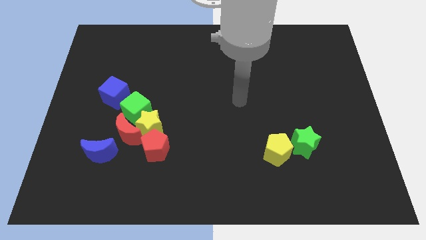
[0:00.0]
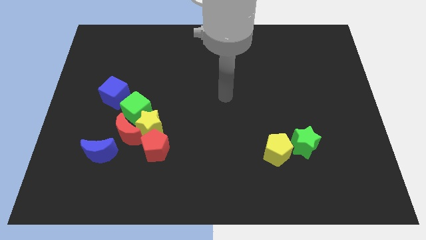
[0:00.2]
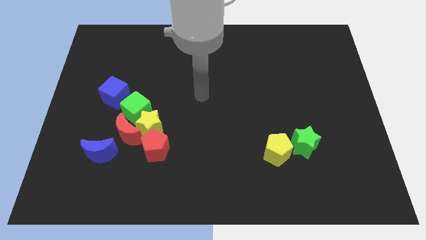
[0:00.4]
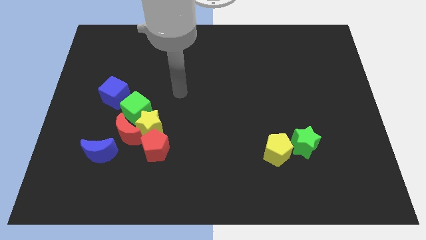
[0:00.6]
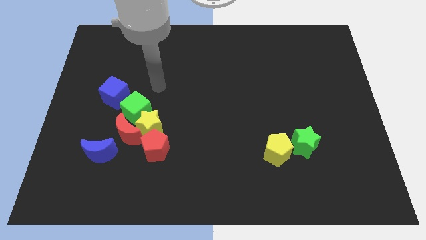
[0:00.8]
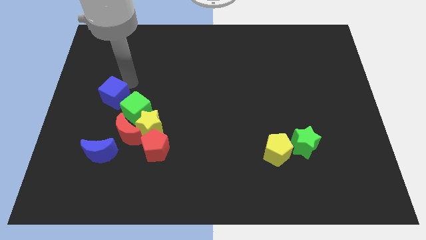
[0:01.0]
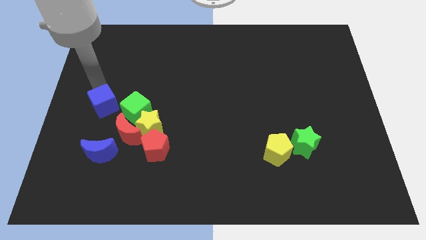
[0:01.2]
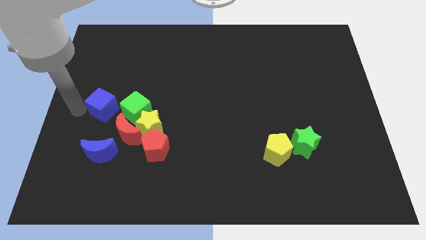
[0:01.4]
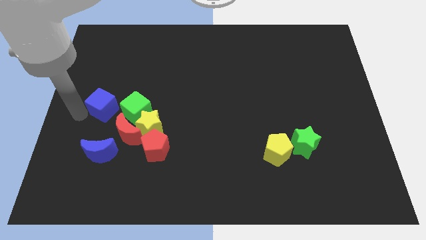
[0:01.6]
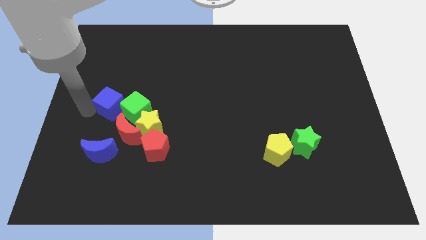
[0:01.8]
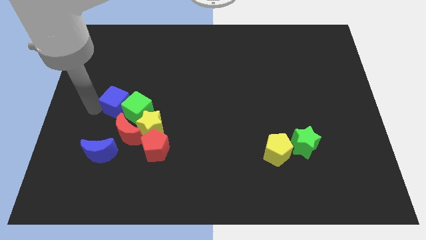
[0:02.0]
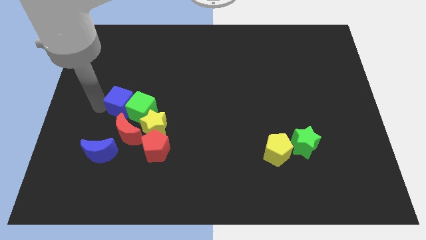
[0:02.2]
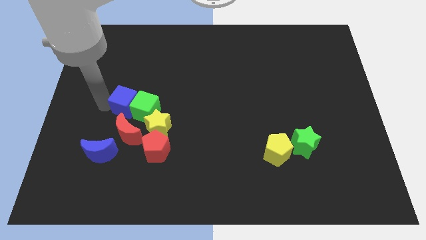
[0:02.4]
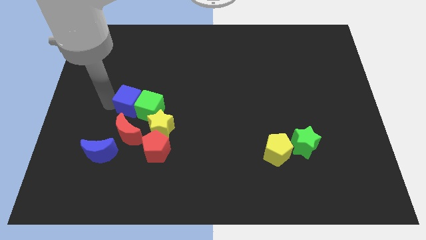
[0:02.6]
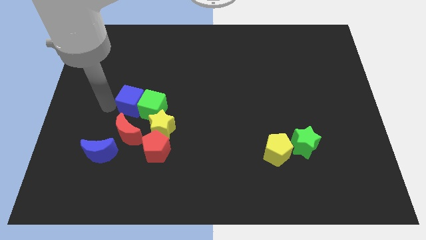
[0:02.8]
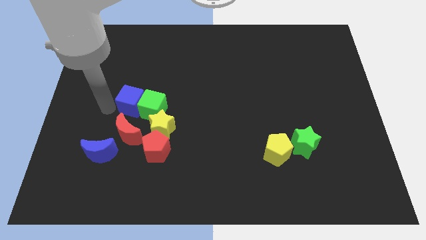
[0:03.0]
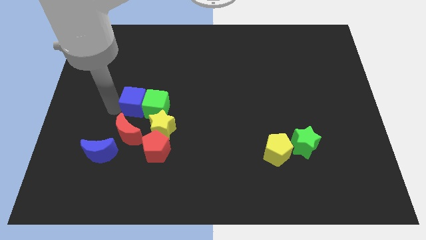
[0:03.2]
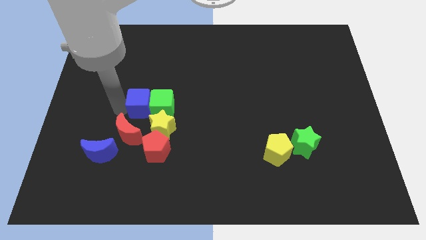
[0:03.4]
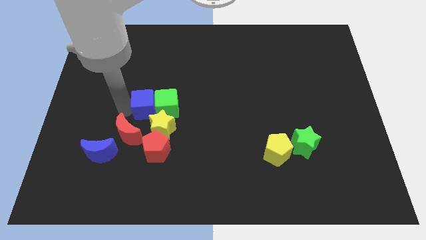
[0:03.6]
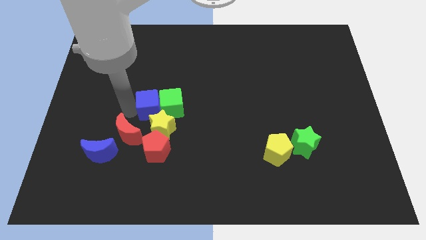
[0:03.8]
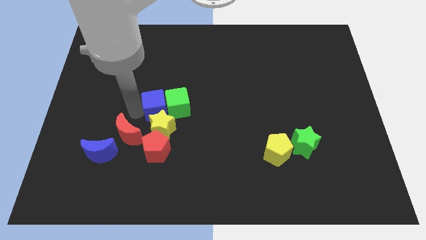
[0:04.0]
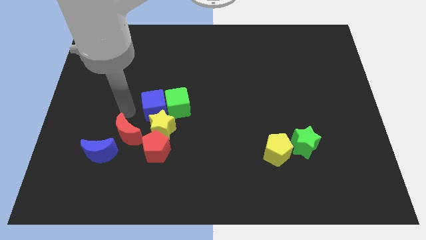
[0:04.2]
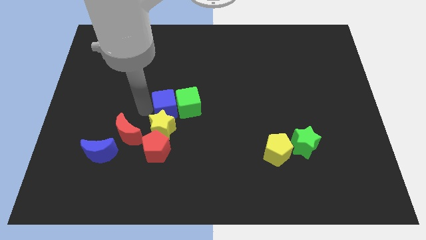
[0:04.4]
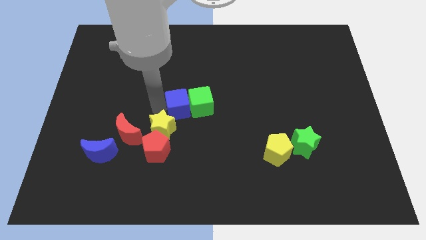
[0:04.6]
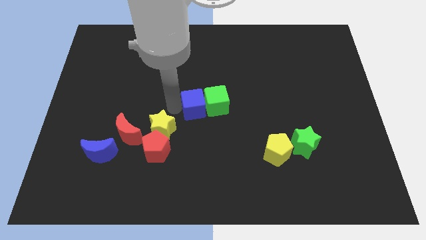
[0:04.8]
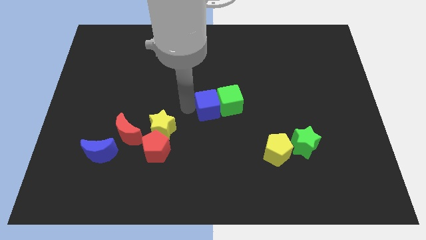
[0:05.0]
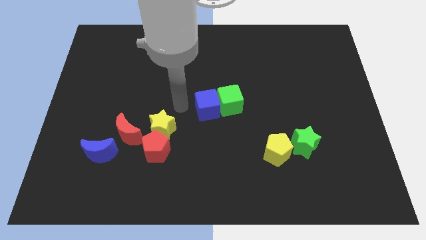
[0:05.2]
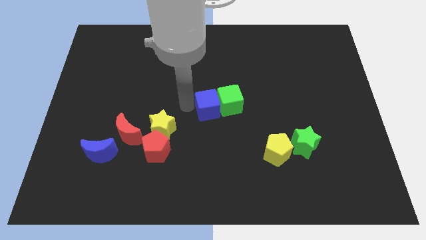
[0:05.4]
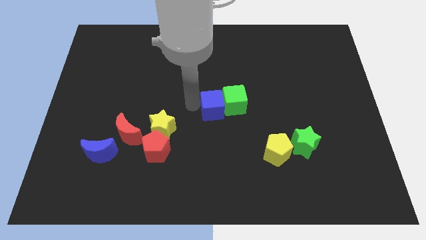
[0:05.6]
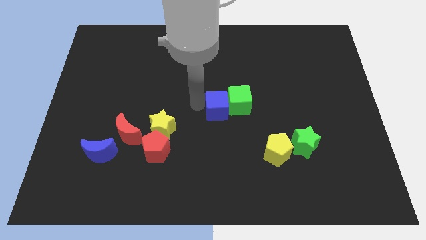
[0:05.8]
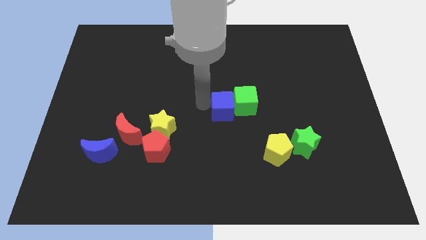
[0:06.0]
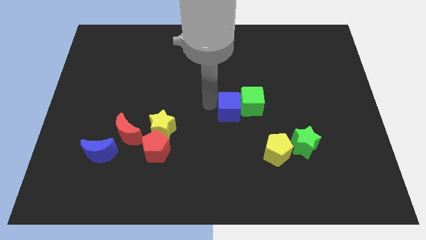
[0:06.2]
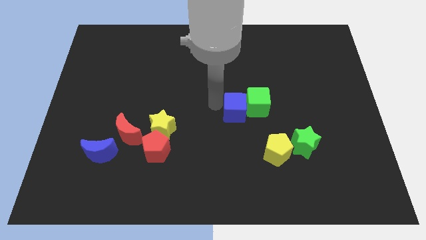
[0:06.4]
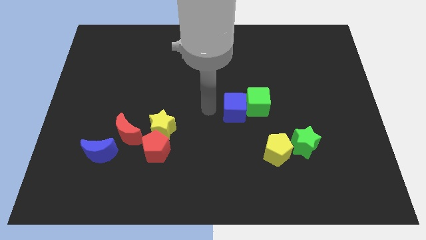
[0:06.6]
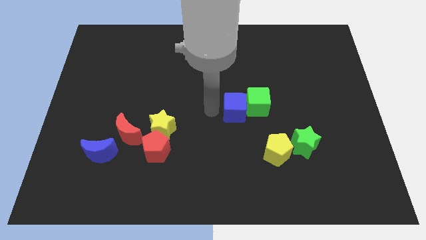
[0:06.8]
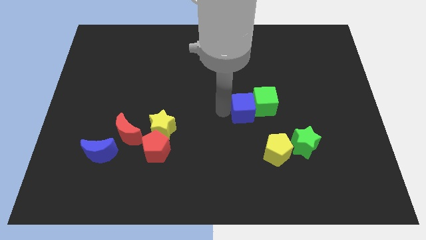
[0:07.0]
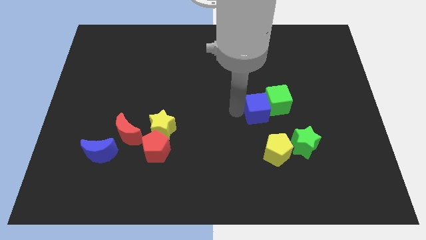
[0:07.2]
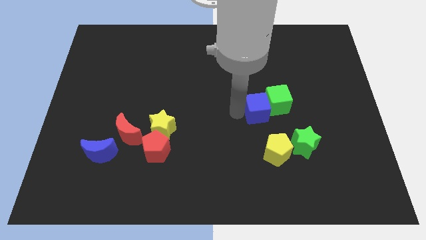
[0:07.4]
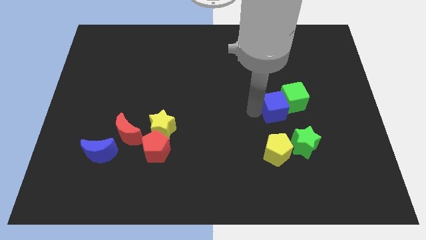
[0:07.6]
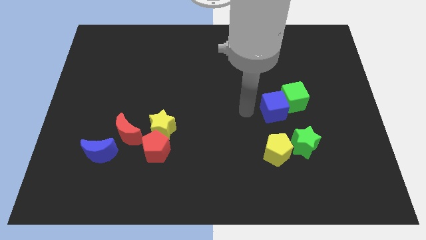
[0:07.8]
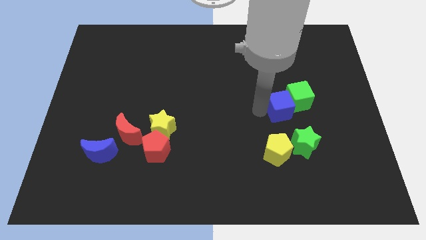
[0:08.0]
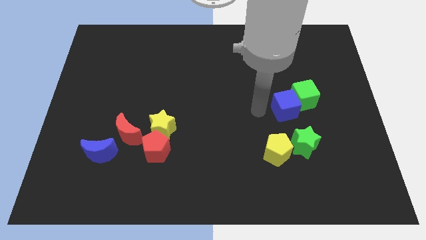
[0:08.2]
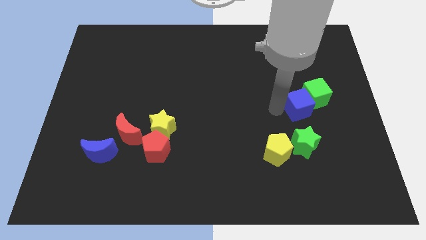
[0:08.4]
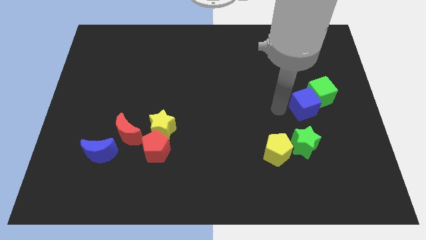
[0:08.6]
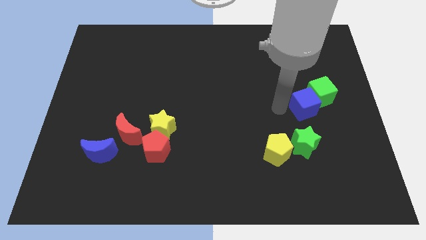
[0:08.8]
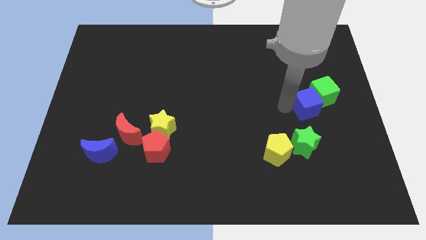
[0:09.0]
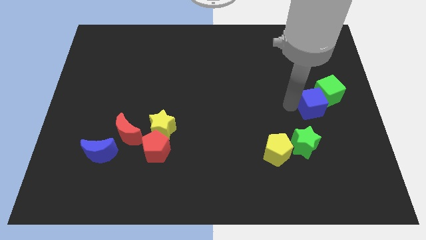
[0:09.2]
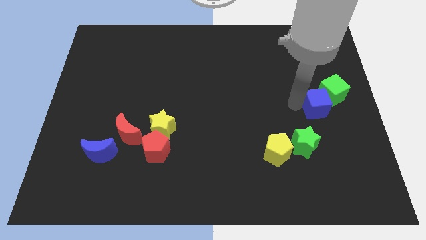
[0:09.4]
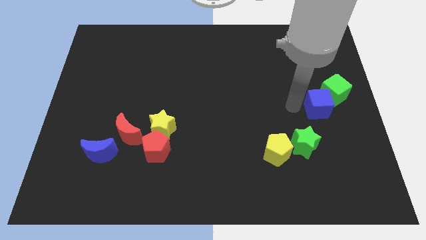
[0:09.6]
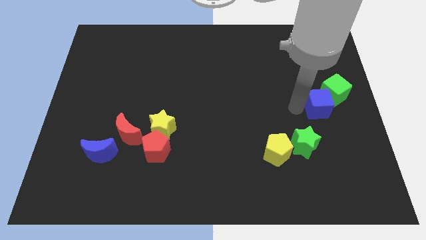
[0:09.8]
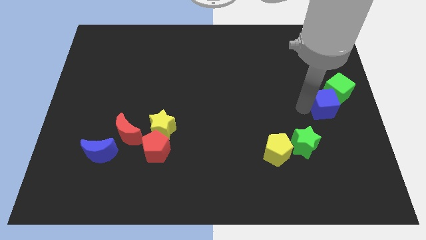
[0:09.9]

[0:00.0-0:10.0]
push the blue cube to the center right

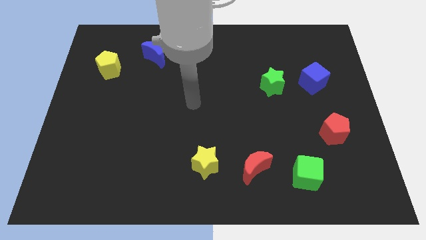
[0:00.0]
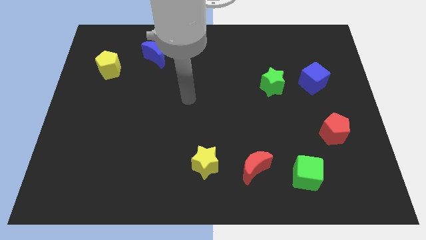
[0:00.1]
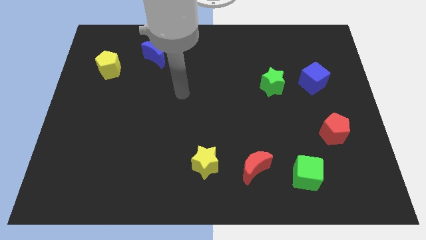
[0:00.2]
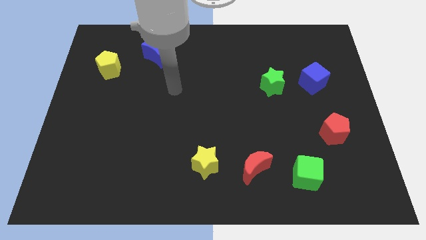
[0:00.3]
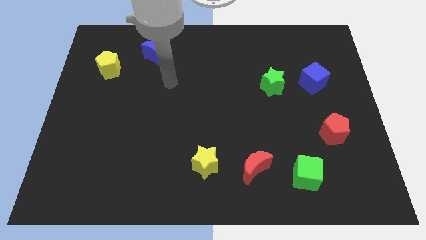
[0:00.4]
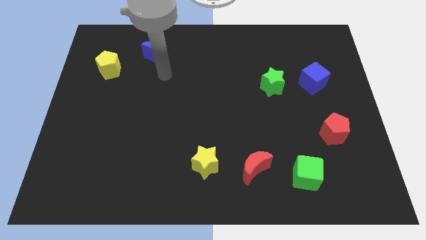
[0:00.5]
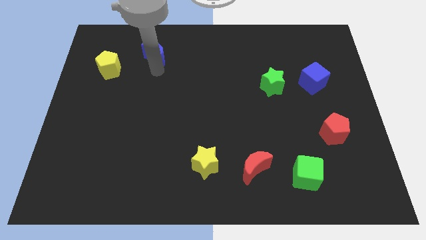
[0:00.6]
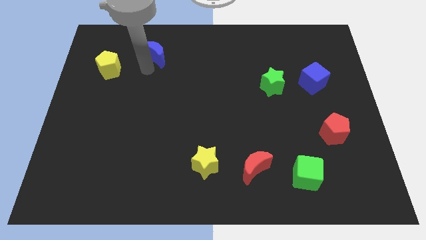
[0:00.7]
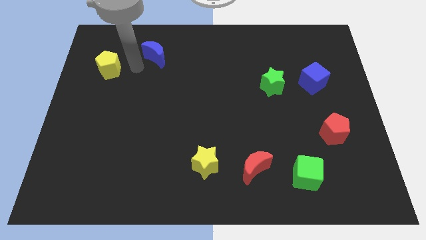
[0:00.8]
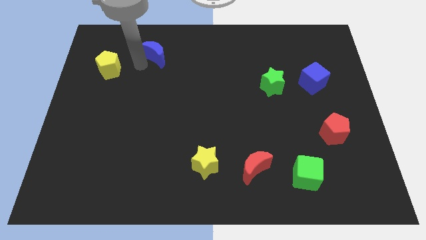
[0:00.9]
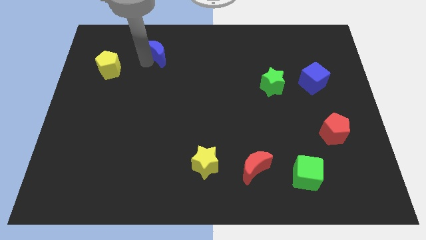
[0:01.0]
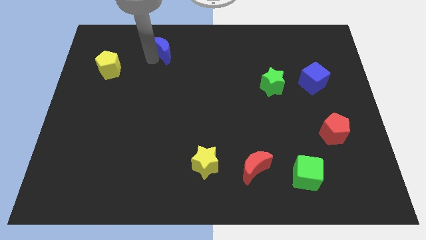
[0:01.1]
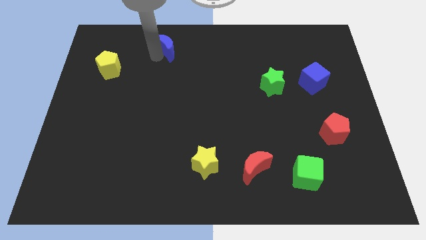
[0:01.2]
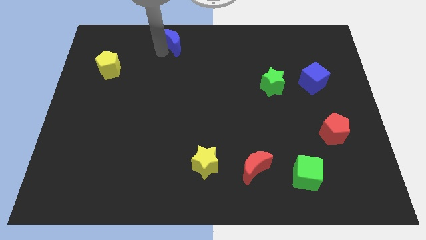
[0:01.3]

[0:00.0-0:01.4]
move the blue moon to the towards your base
